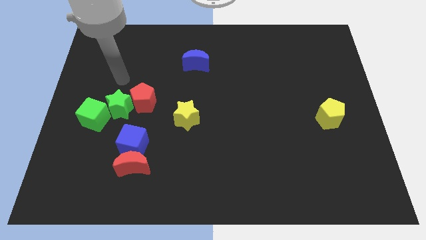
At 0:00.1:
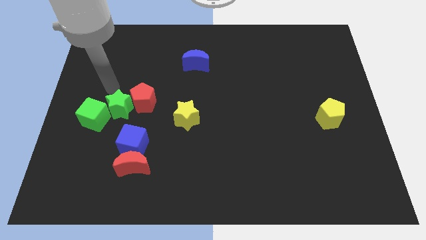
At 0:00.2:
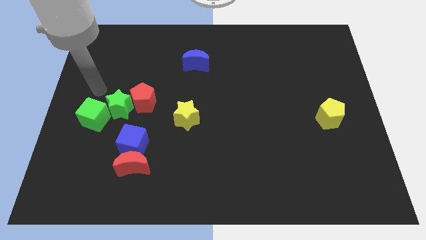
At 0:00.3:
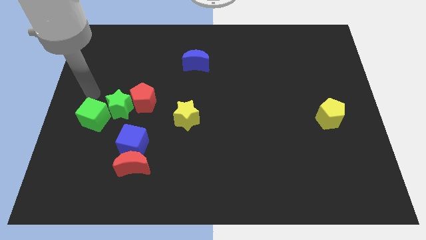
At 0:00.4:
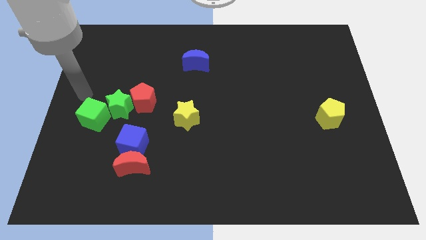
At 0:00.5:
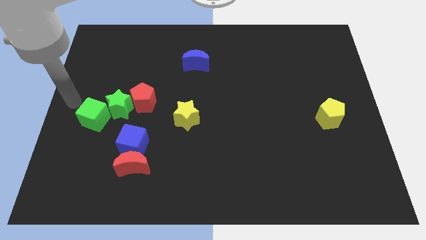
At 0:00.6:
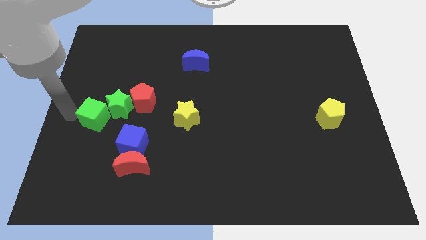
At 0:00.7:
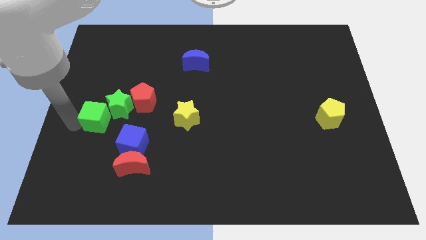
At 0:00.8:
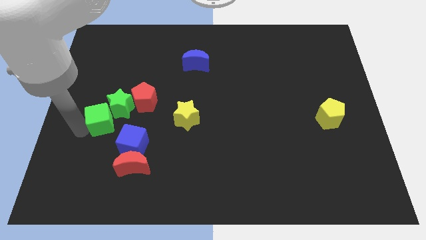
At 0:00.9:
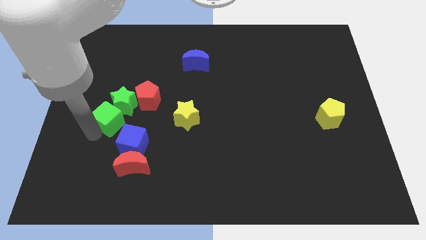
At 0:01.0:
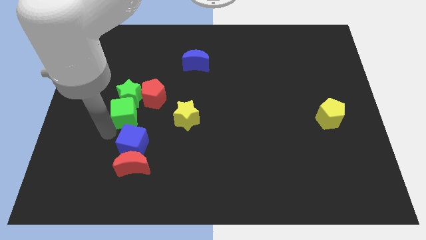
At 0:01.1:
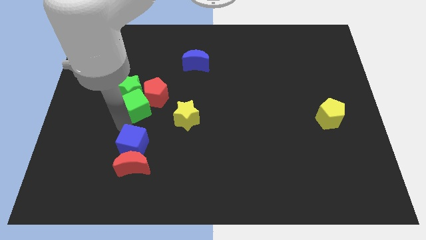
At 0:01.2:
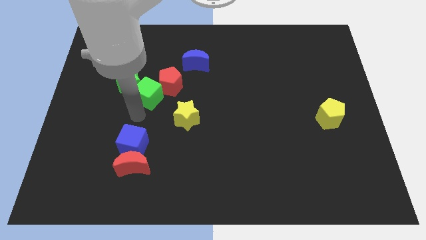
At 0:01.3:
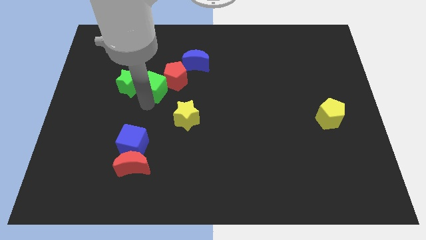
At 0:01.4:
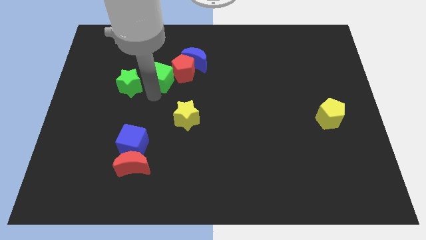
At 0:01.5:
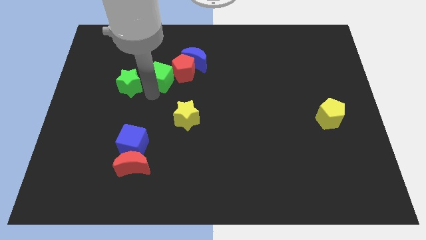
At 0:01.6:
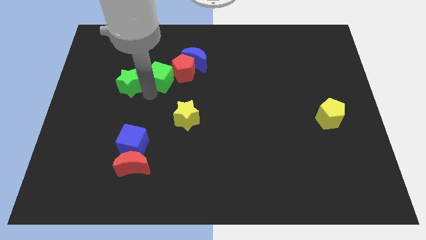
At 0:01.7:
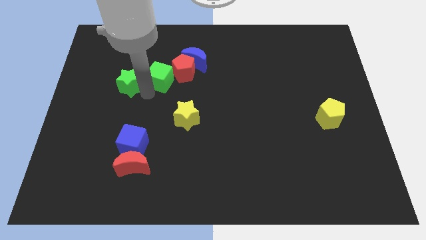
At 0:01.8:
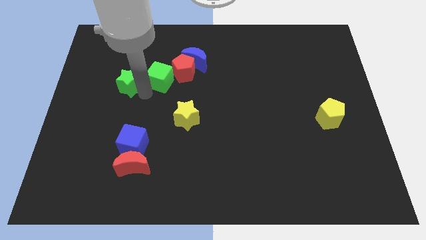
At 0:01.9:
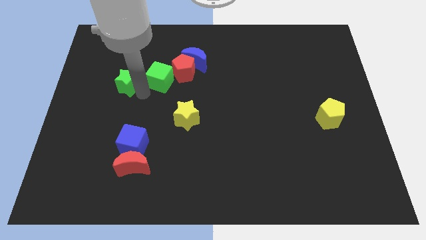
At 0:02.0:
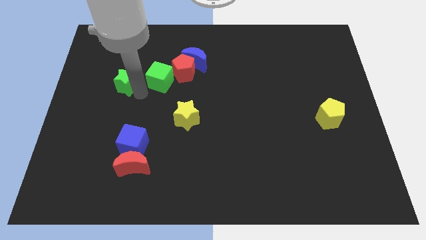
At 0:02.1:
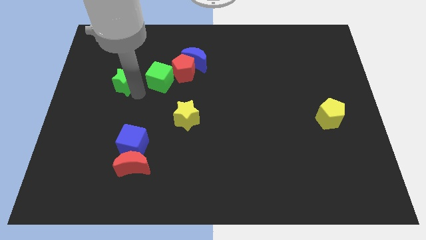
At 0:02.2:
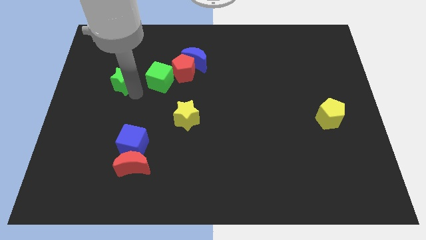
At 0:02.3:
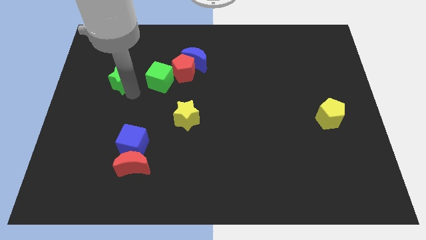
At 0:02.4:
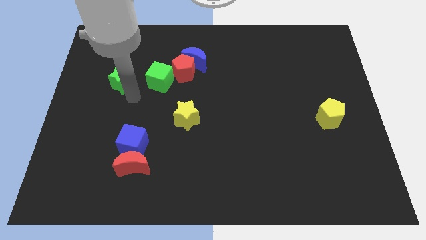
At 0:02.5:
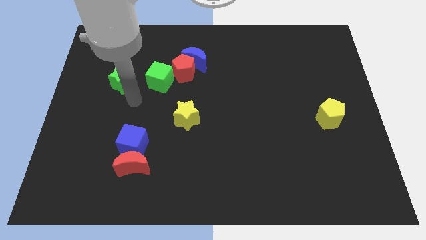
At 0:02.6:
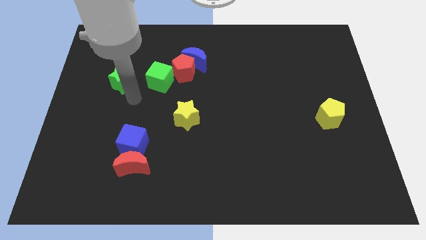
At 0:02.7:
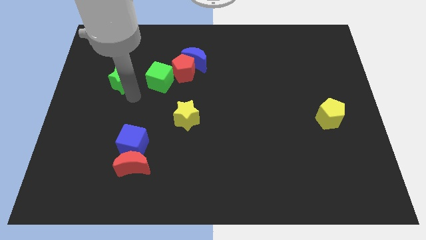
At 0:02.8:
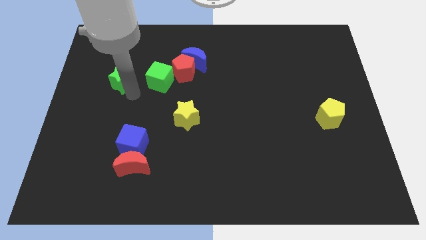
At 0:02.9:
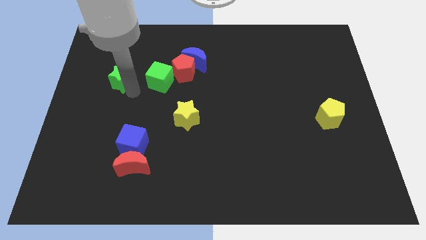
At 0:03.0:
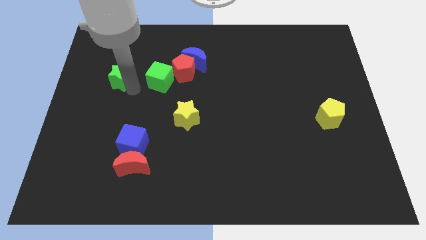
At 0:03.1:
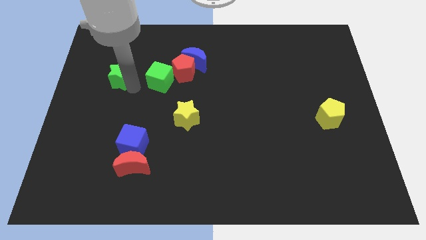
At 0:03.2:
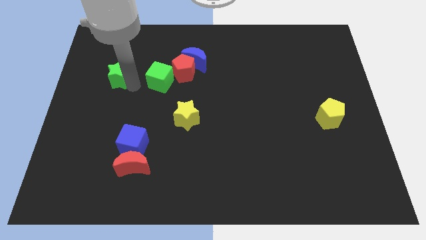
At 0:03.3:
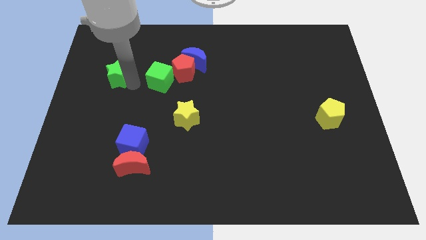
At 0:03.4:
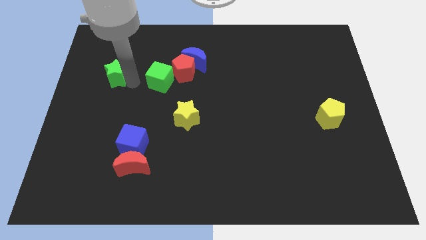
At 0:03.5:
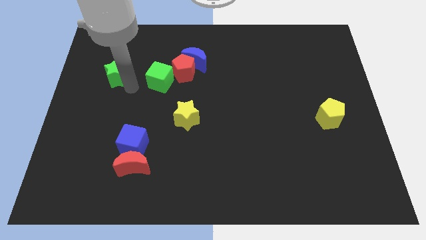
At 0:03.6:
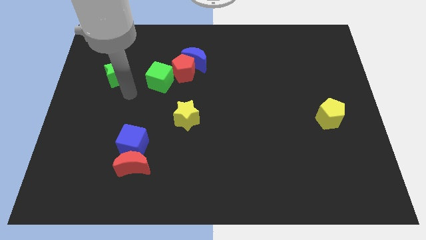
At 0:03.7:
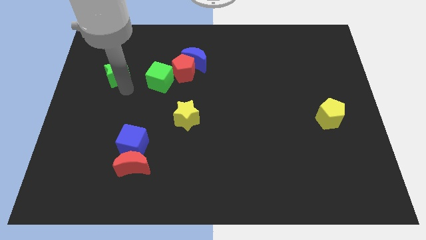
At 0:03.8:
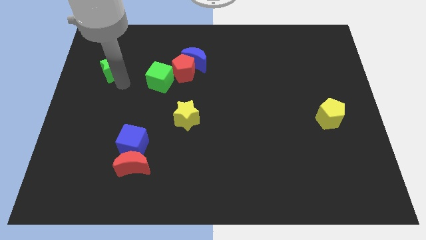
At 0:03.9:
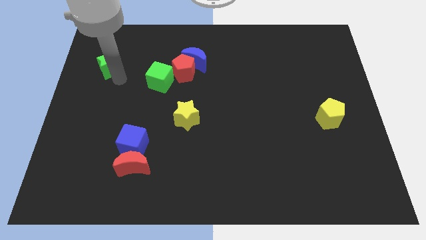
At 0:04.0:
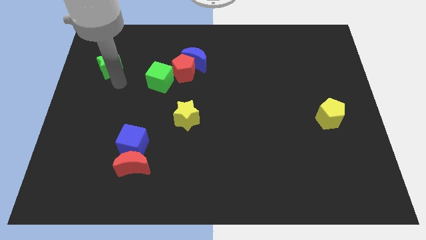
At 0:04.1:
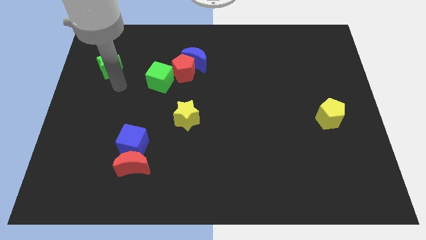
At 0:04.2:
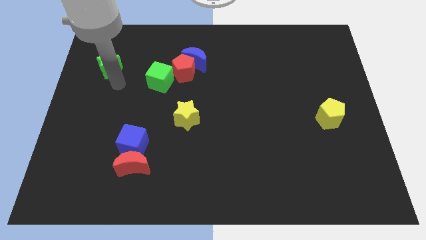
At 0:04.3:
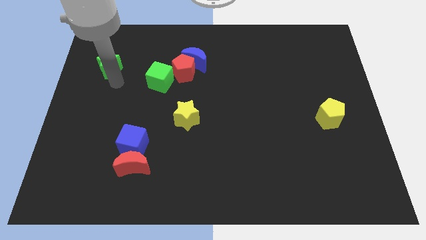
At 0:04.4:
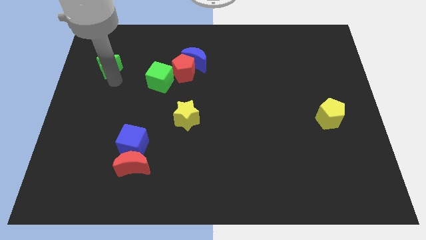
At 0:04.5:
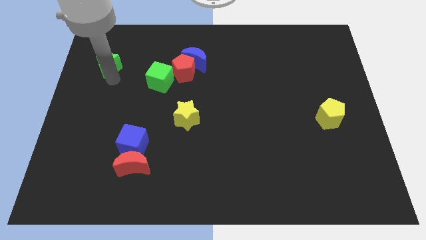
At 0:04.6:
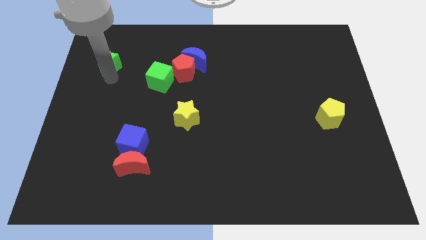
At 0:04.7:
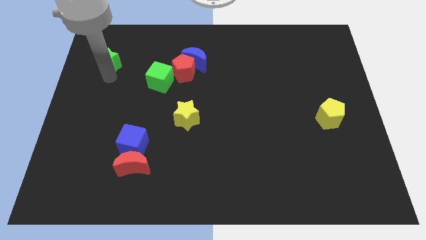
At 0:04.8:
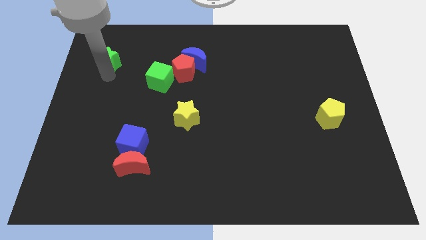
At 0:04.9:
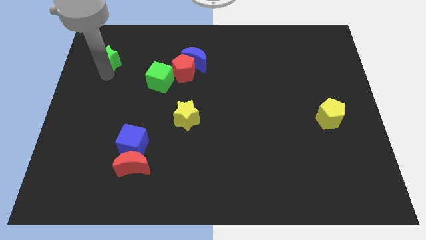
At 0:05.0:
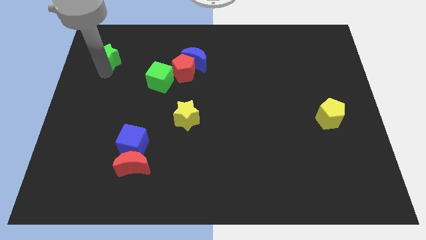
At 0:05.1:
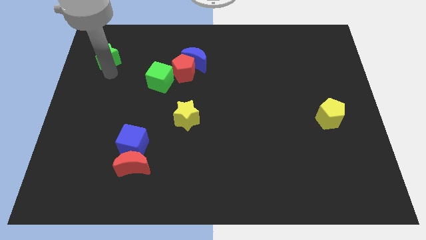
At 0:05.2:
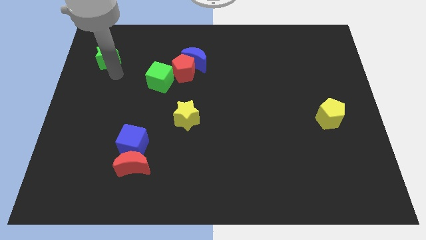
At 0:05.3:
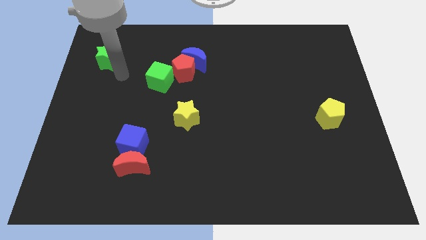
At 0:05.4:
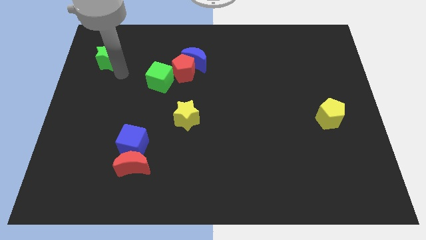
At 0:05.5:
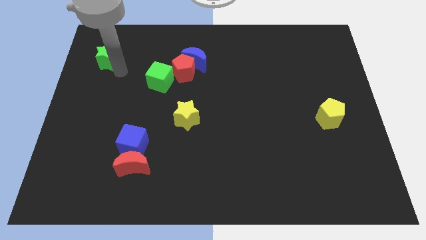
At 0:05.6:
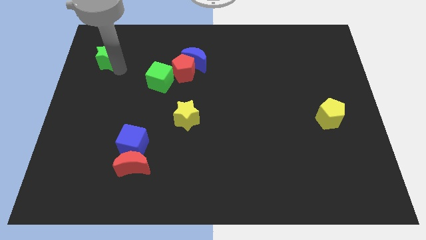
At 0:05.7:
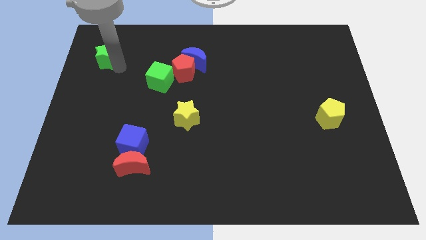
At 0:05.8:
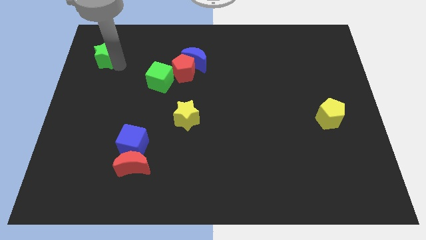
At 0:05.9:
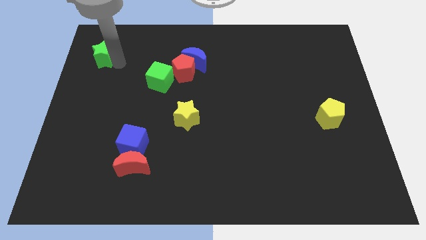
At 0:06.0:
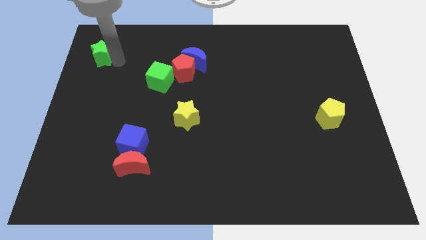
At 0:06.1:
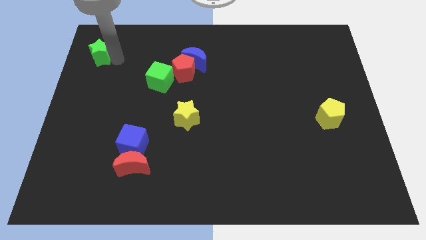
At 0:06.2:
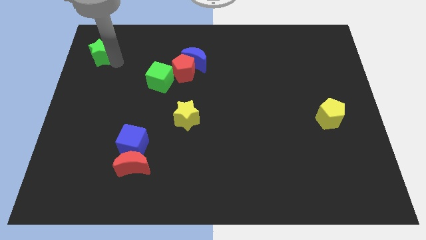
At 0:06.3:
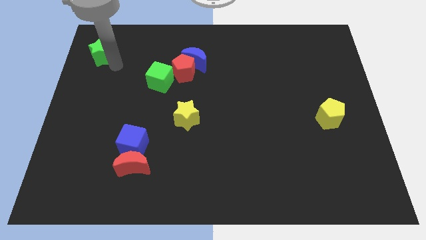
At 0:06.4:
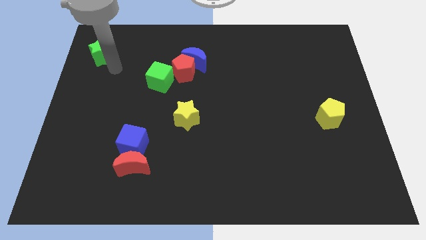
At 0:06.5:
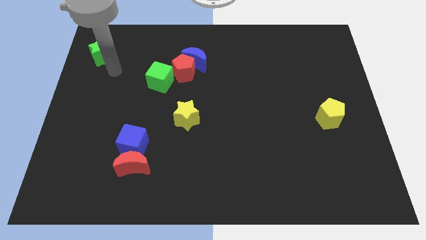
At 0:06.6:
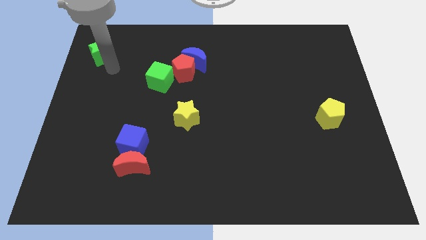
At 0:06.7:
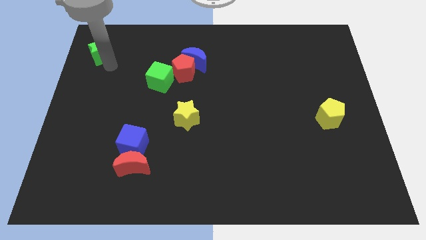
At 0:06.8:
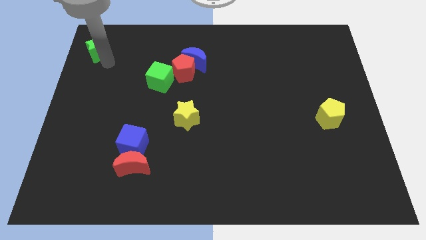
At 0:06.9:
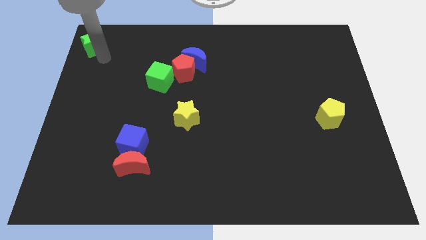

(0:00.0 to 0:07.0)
push the green star to the top left corner
